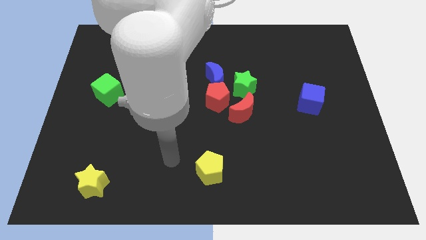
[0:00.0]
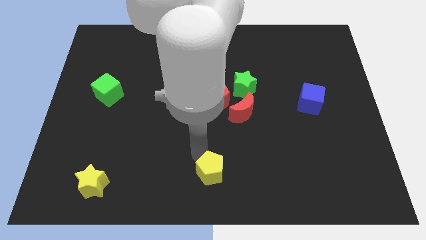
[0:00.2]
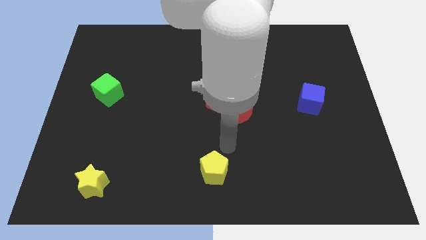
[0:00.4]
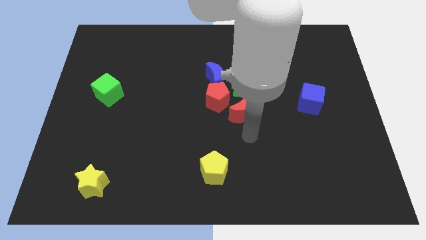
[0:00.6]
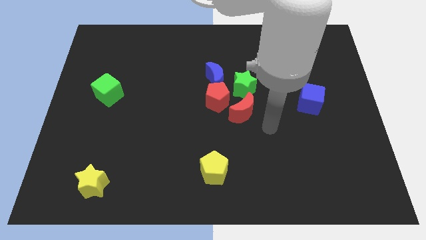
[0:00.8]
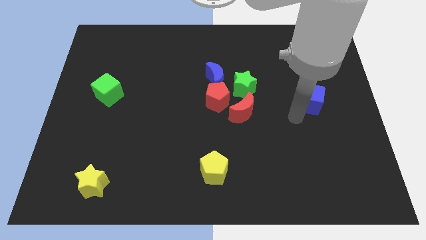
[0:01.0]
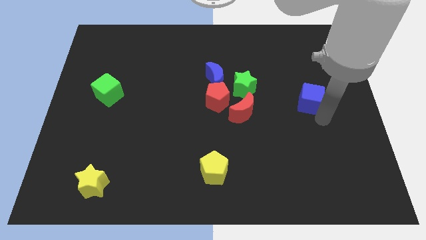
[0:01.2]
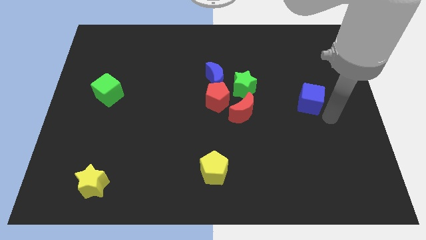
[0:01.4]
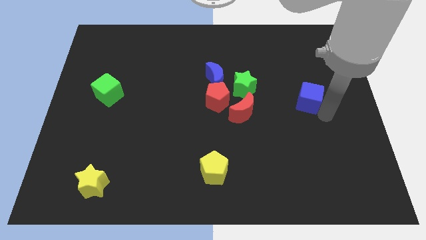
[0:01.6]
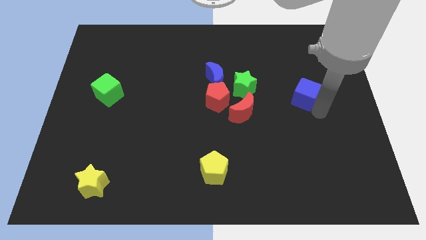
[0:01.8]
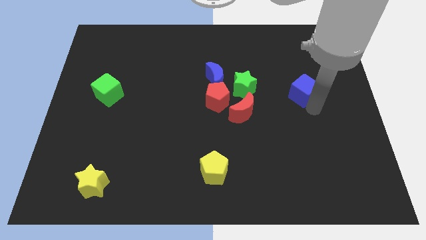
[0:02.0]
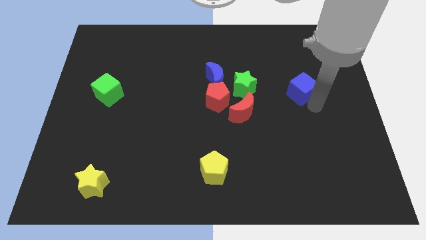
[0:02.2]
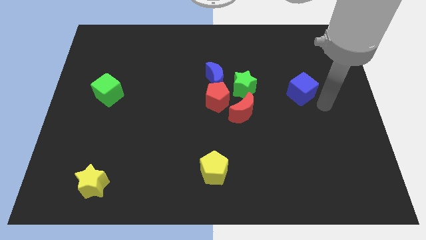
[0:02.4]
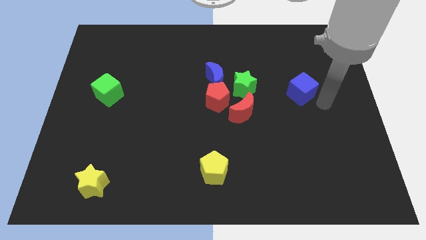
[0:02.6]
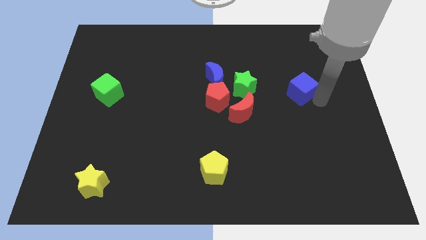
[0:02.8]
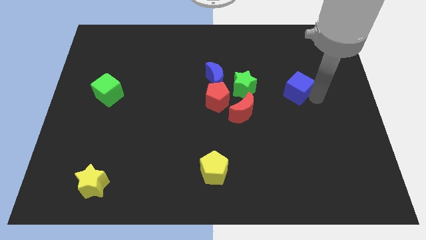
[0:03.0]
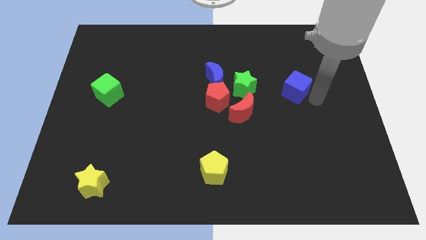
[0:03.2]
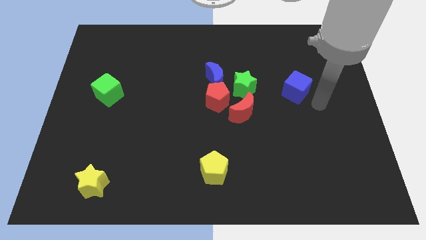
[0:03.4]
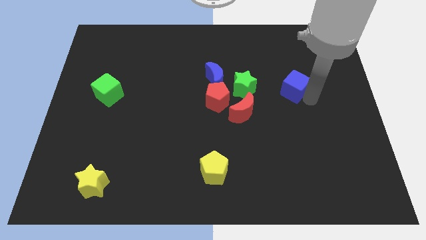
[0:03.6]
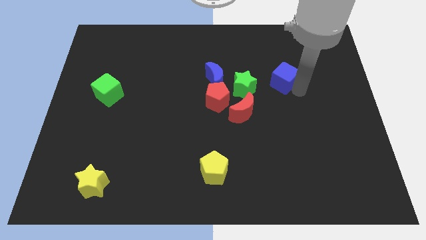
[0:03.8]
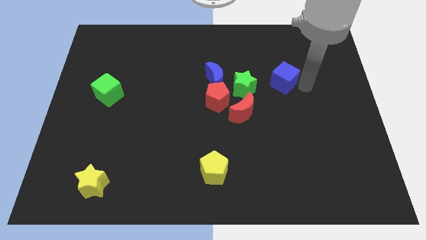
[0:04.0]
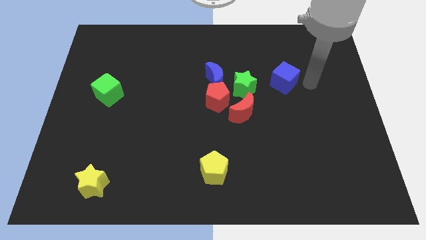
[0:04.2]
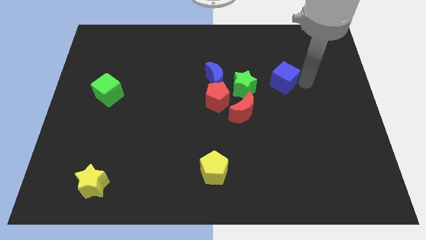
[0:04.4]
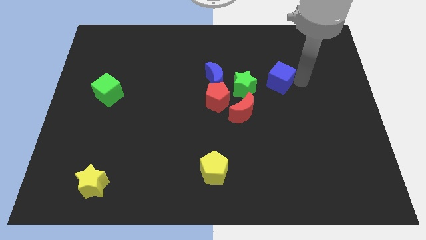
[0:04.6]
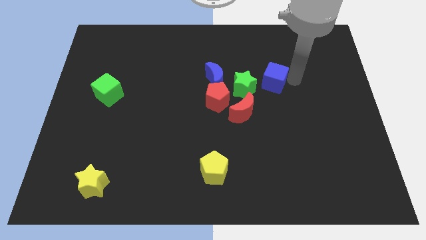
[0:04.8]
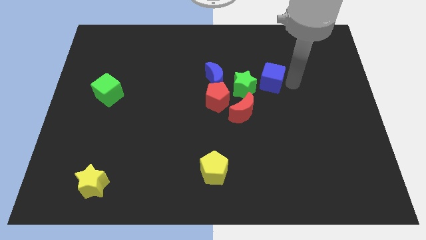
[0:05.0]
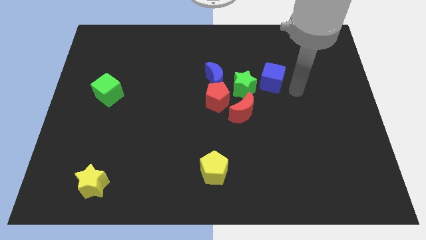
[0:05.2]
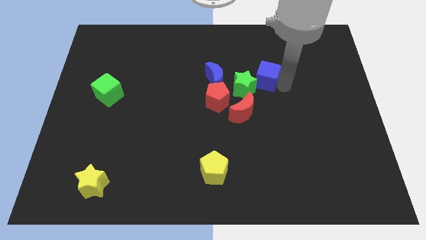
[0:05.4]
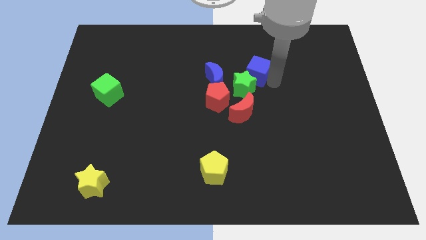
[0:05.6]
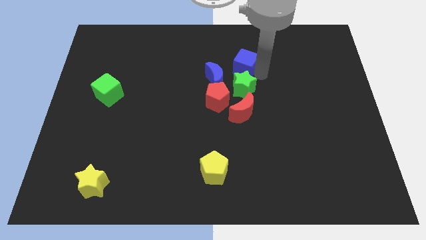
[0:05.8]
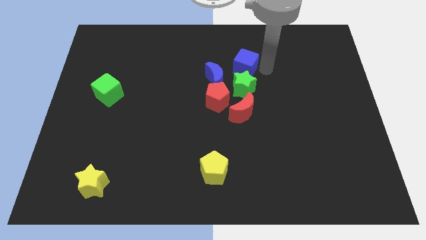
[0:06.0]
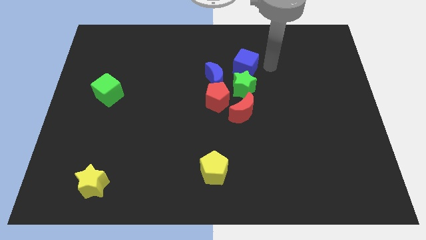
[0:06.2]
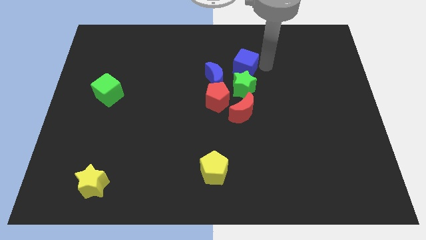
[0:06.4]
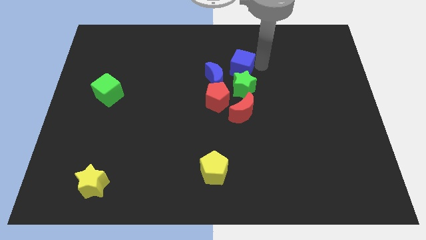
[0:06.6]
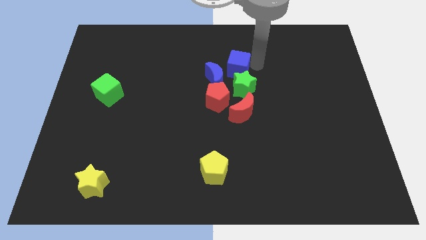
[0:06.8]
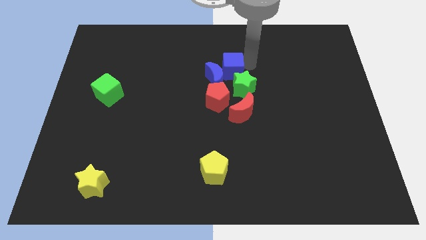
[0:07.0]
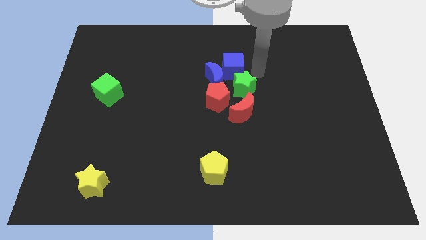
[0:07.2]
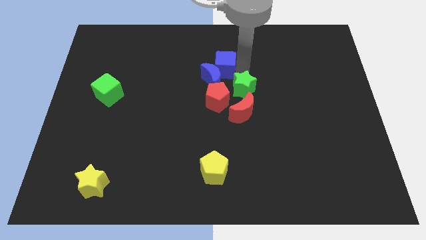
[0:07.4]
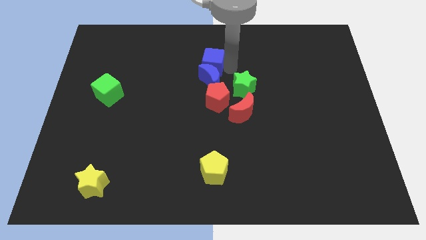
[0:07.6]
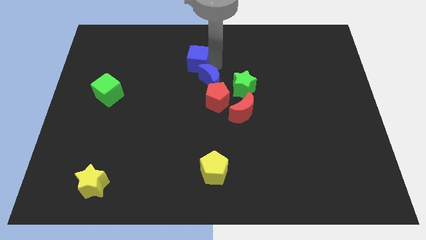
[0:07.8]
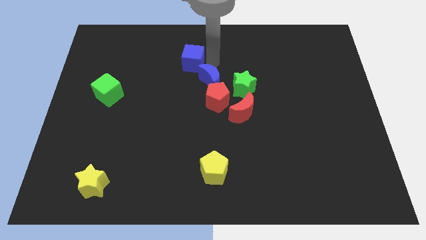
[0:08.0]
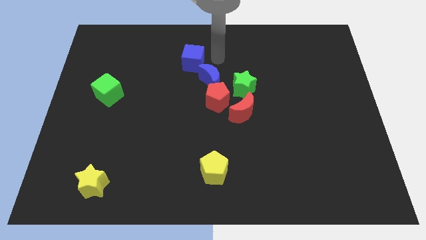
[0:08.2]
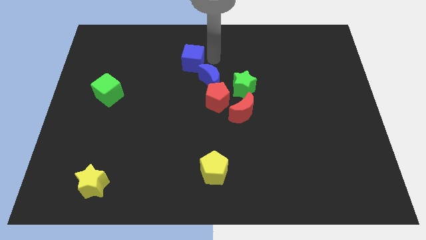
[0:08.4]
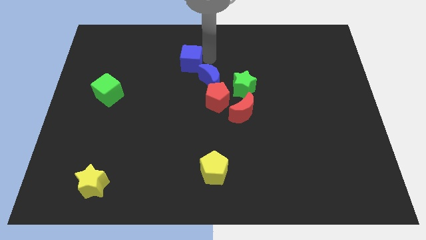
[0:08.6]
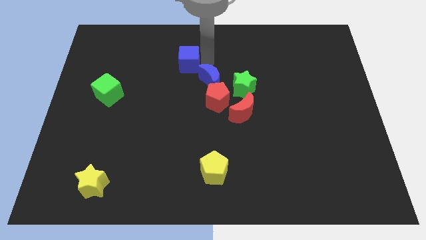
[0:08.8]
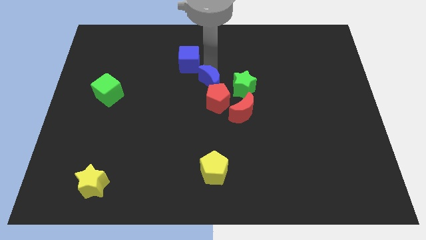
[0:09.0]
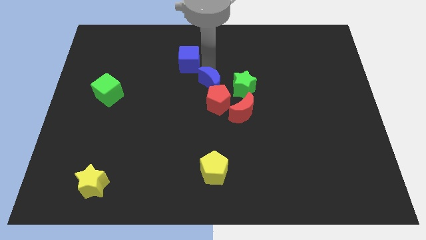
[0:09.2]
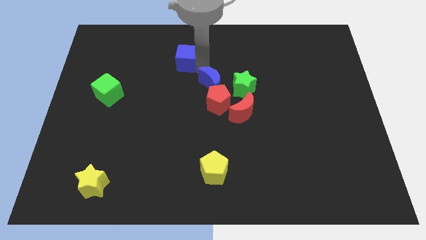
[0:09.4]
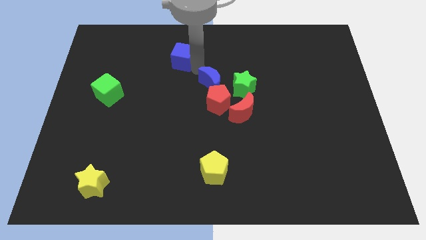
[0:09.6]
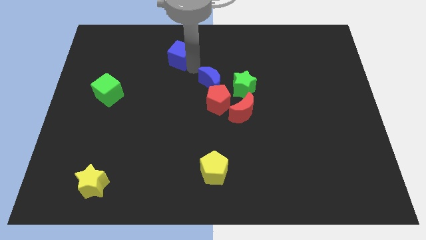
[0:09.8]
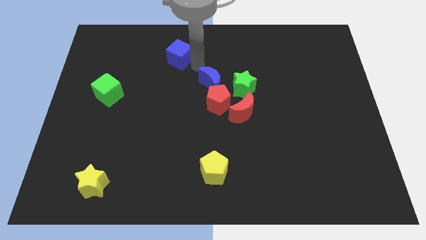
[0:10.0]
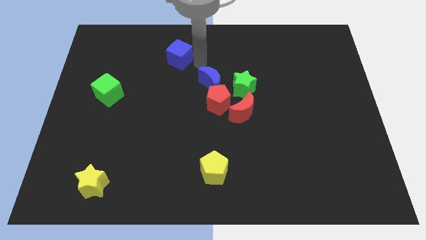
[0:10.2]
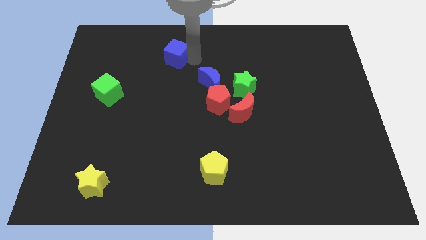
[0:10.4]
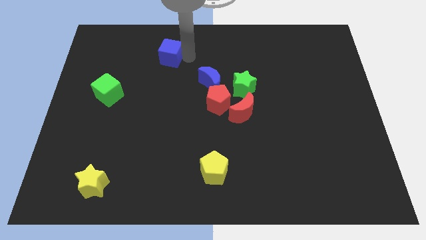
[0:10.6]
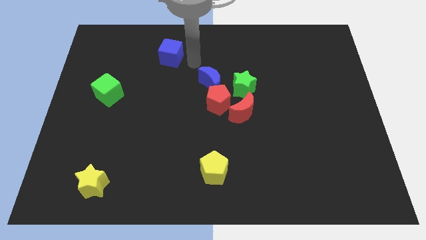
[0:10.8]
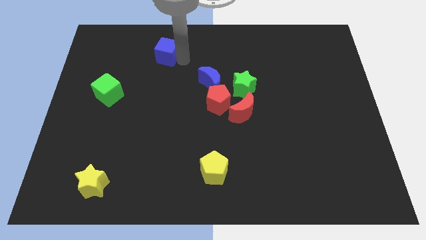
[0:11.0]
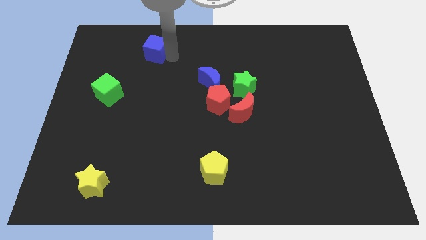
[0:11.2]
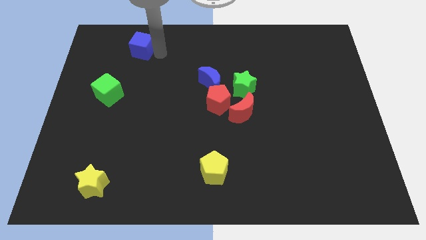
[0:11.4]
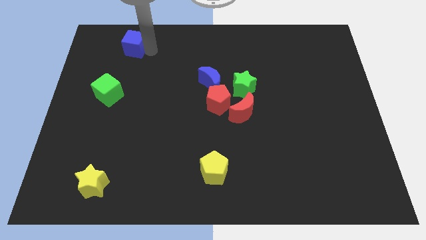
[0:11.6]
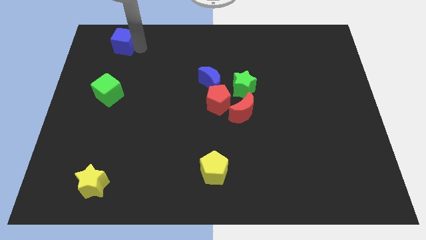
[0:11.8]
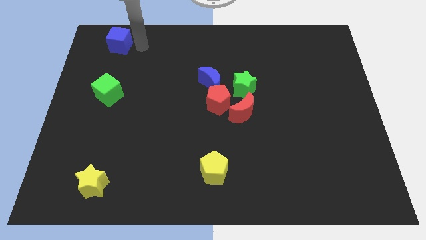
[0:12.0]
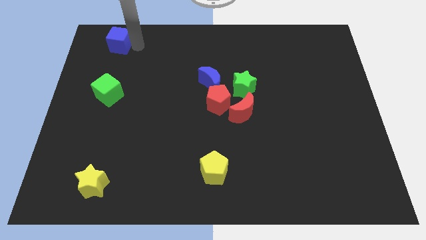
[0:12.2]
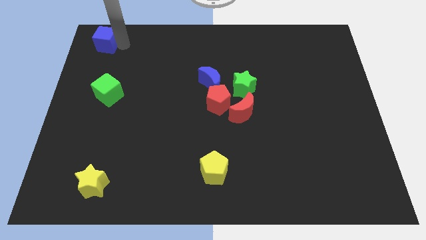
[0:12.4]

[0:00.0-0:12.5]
move the blue cube to the upper left corner

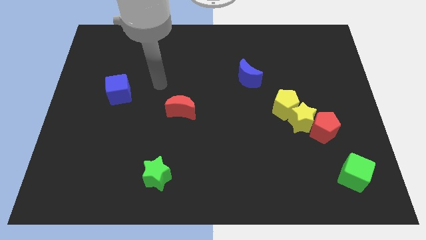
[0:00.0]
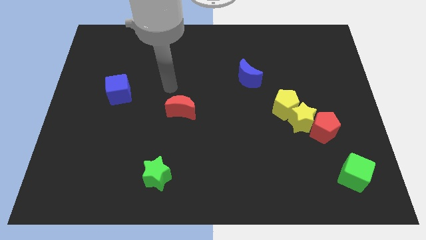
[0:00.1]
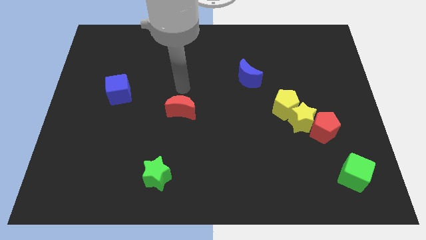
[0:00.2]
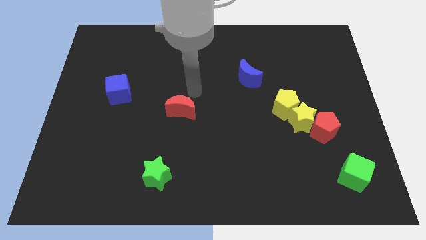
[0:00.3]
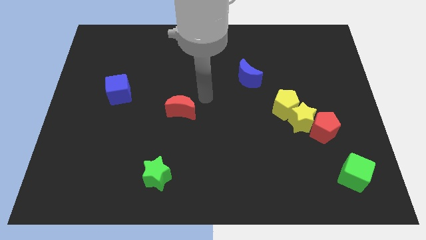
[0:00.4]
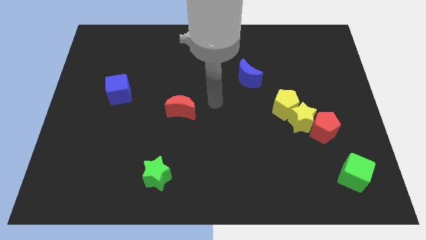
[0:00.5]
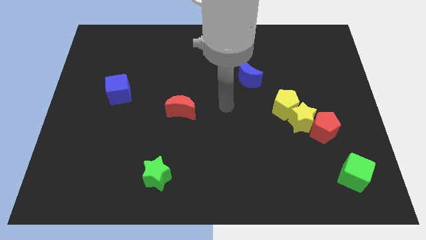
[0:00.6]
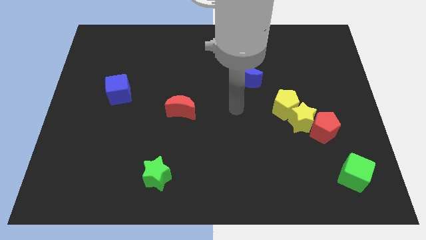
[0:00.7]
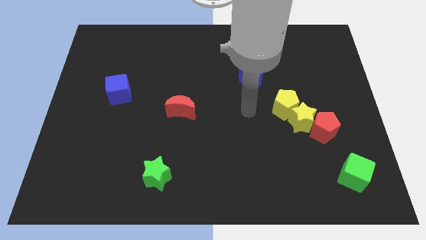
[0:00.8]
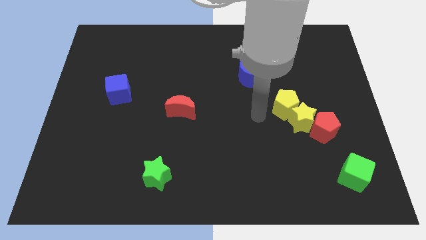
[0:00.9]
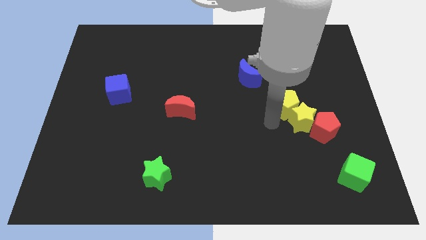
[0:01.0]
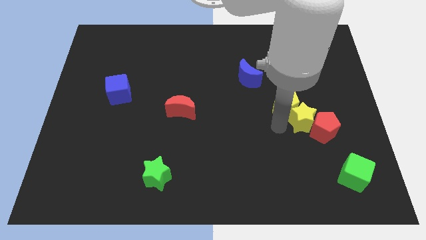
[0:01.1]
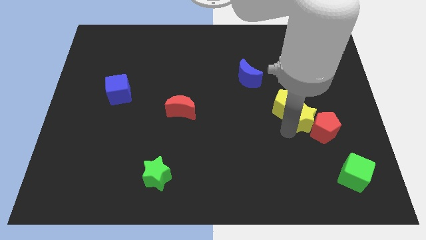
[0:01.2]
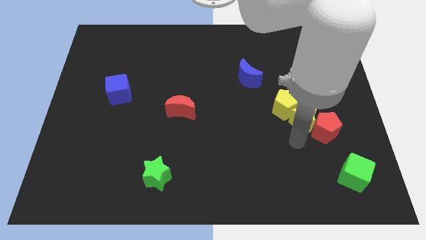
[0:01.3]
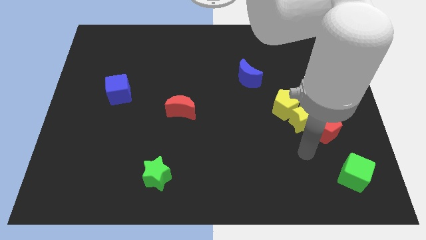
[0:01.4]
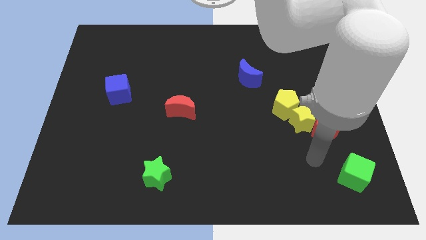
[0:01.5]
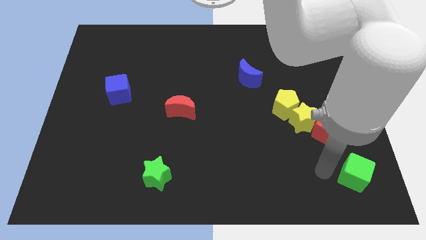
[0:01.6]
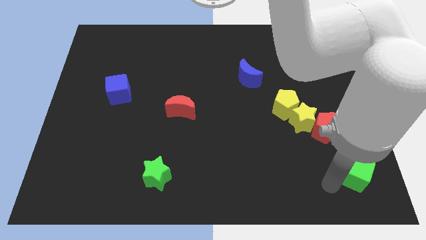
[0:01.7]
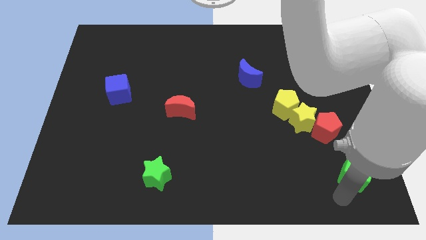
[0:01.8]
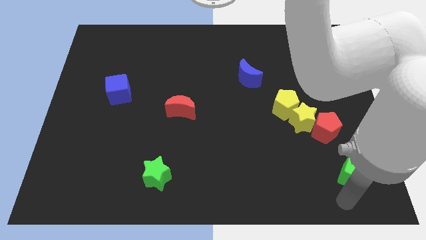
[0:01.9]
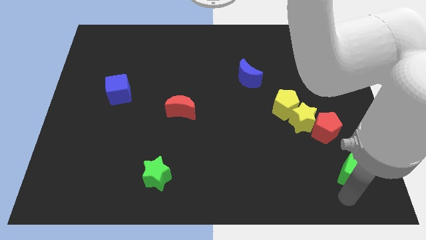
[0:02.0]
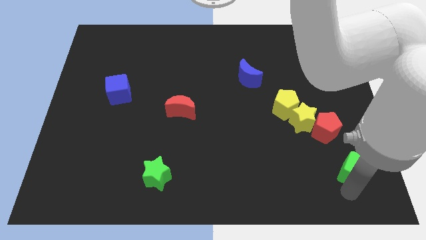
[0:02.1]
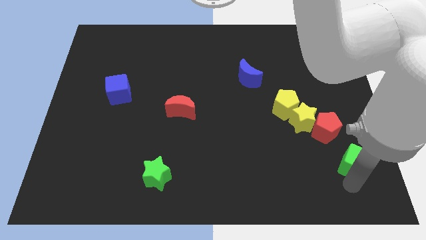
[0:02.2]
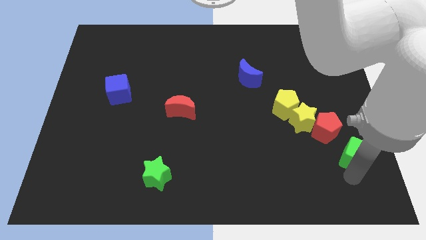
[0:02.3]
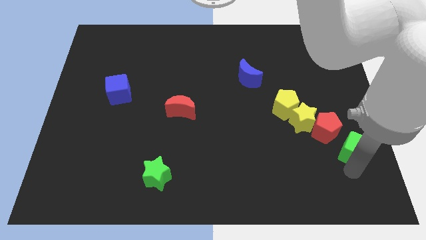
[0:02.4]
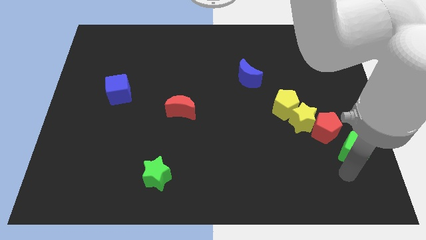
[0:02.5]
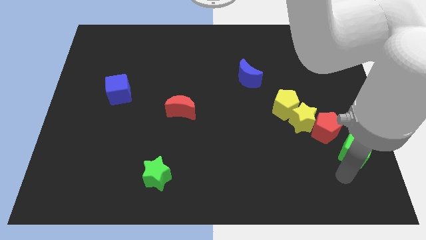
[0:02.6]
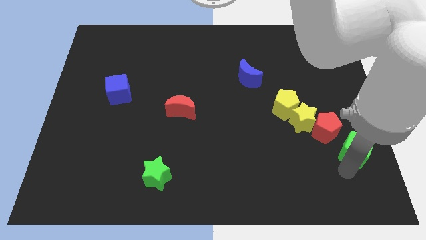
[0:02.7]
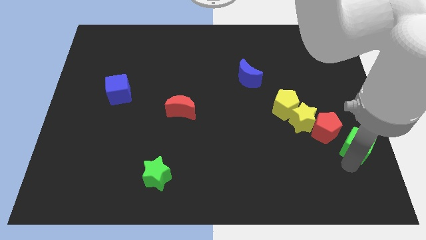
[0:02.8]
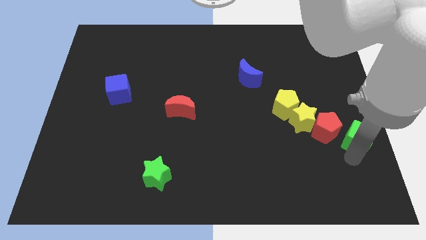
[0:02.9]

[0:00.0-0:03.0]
slide the green cube to the center right
